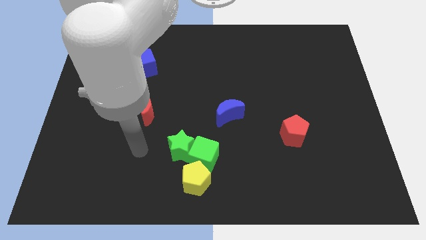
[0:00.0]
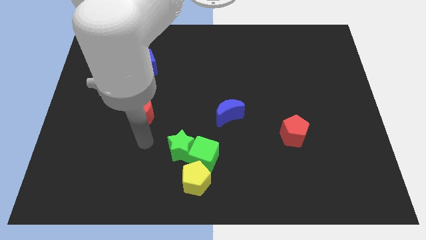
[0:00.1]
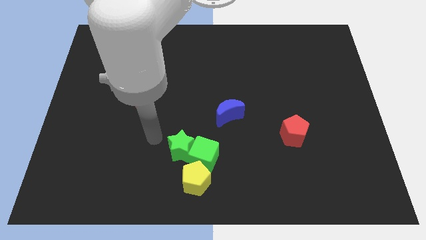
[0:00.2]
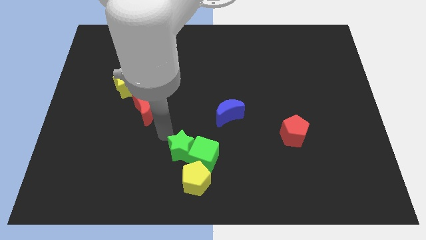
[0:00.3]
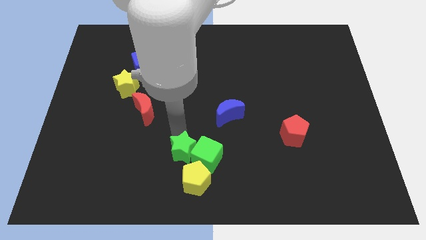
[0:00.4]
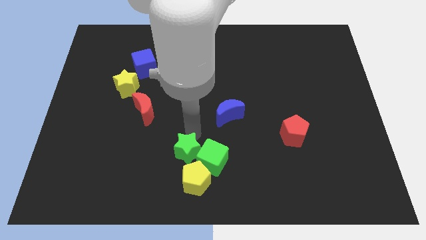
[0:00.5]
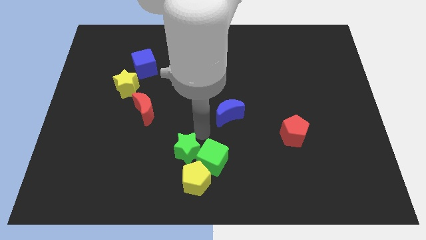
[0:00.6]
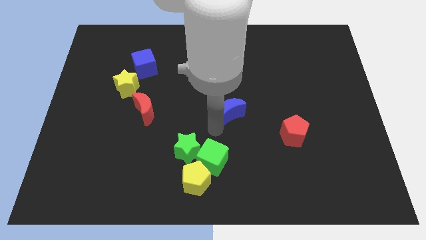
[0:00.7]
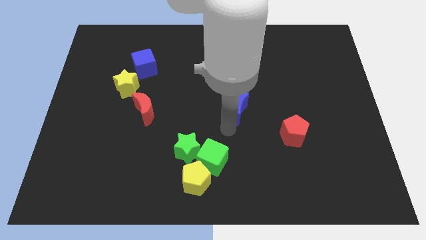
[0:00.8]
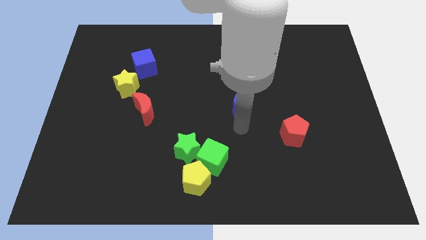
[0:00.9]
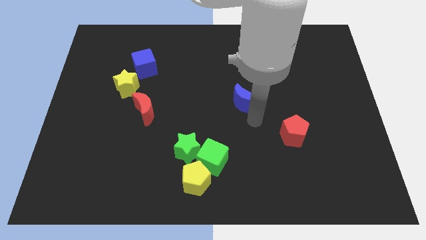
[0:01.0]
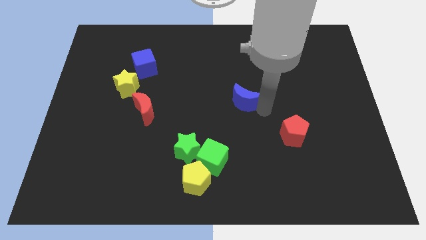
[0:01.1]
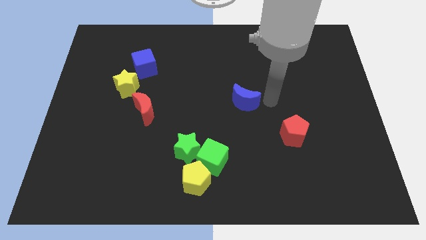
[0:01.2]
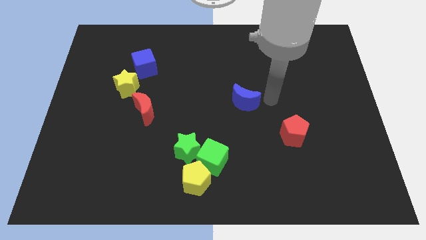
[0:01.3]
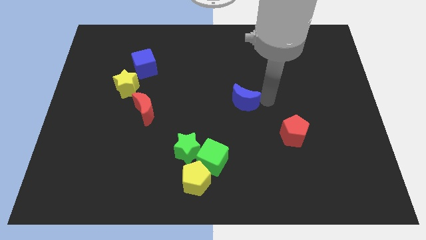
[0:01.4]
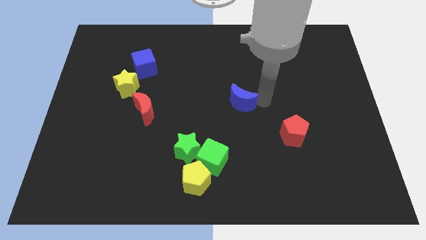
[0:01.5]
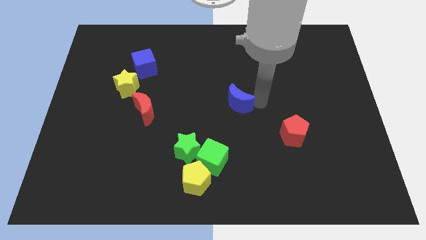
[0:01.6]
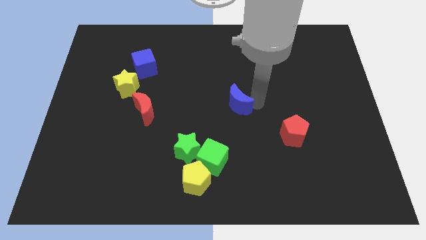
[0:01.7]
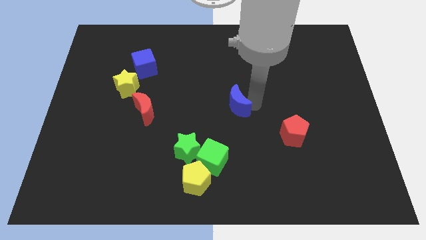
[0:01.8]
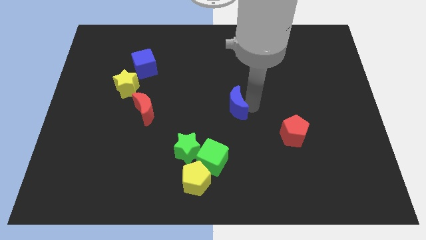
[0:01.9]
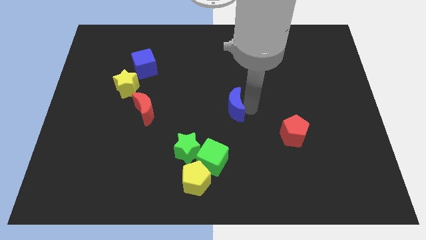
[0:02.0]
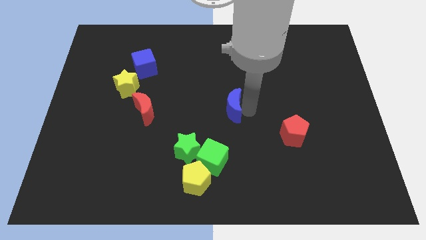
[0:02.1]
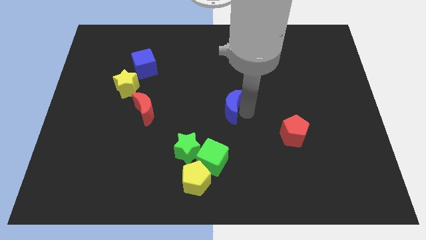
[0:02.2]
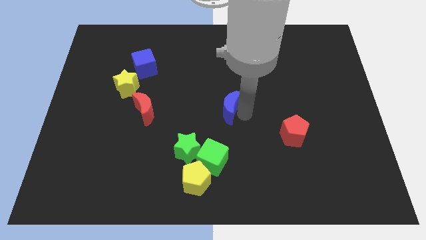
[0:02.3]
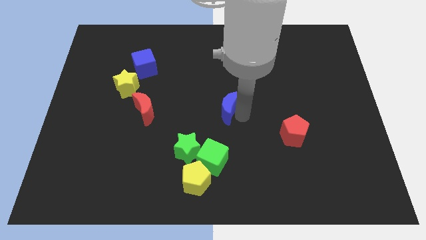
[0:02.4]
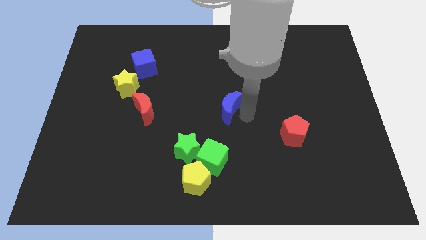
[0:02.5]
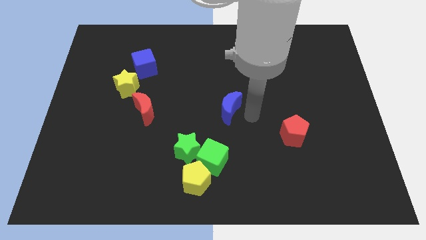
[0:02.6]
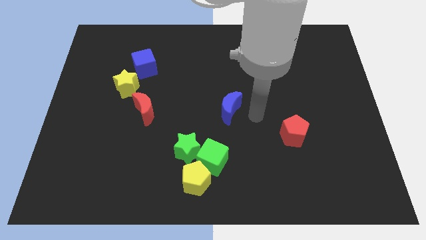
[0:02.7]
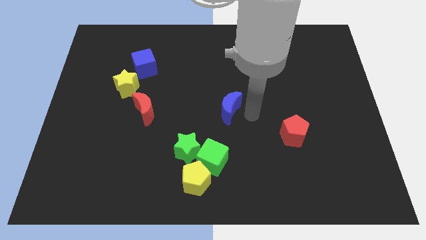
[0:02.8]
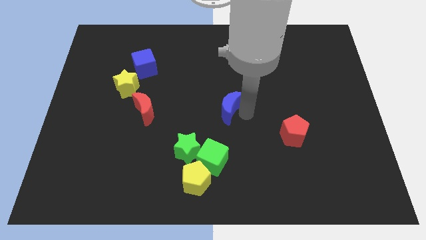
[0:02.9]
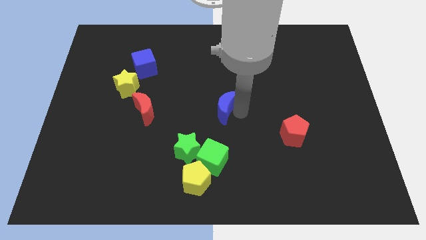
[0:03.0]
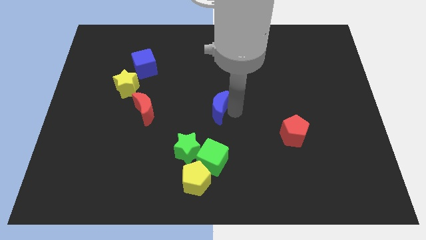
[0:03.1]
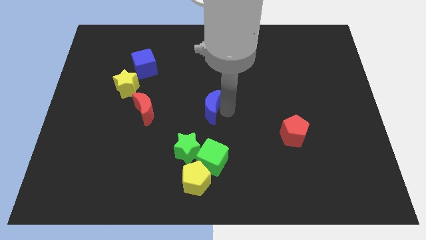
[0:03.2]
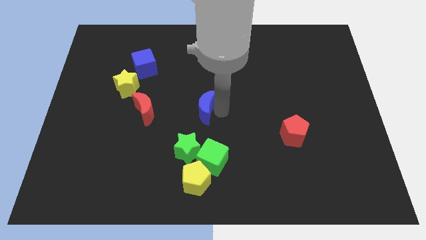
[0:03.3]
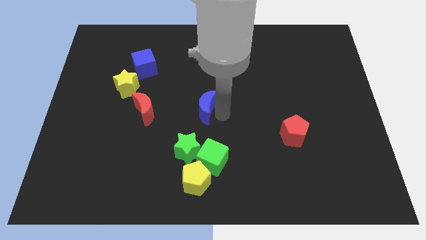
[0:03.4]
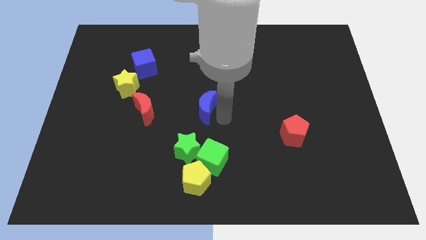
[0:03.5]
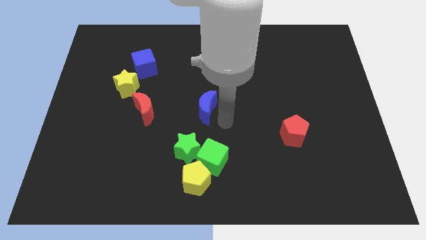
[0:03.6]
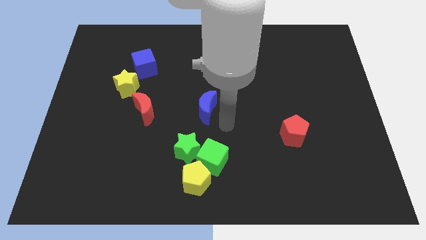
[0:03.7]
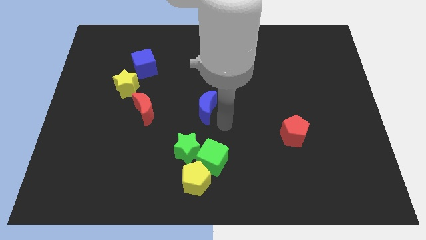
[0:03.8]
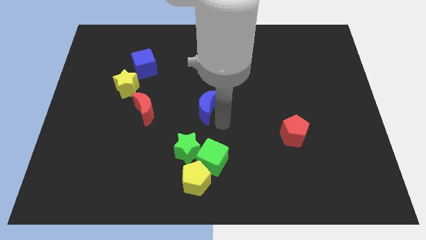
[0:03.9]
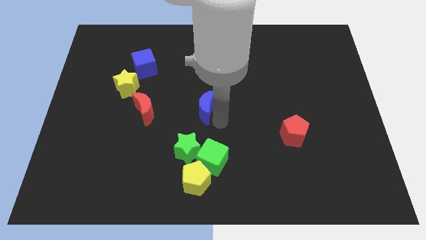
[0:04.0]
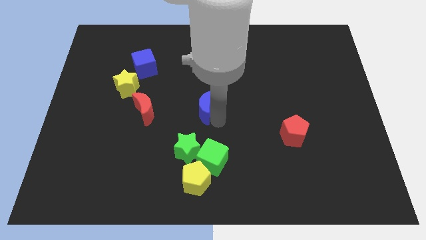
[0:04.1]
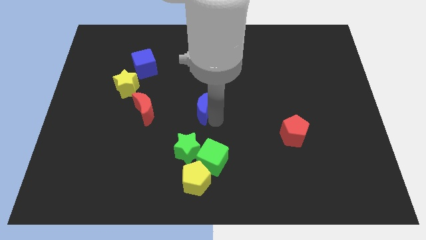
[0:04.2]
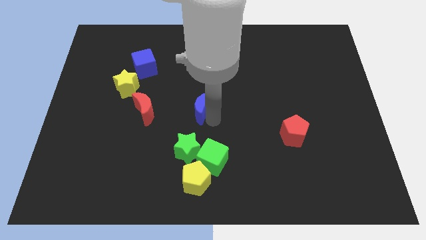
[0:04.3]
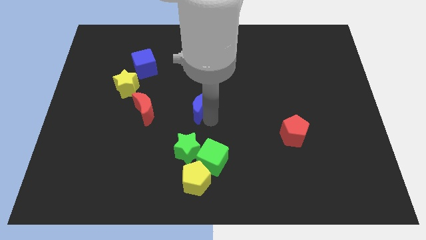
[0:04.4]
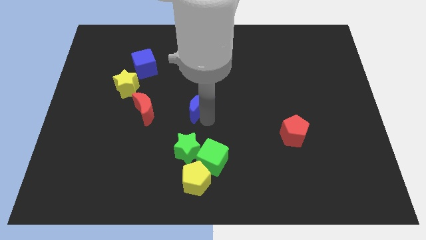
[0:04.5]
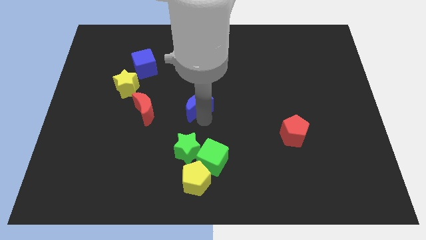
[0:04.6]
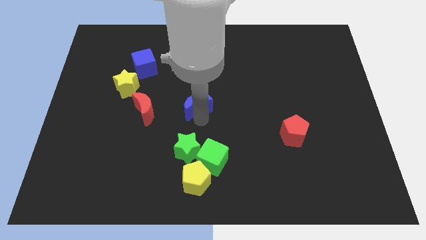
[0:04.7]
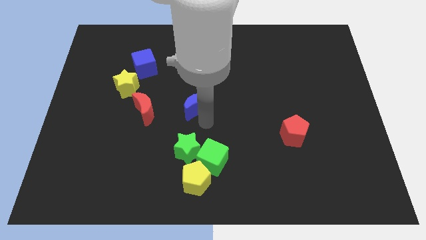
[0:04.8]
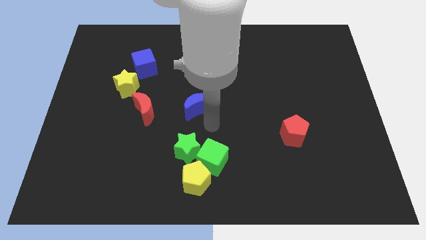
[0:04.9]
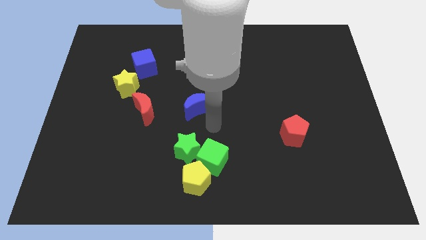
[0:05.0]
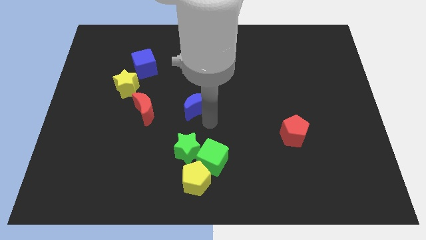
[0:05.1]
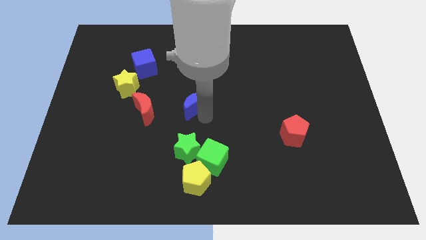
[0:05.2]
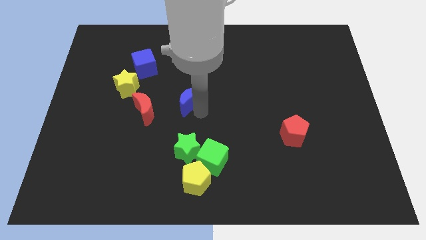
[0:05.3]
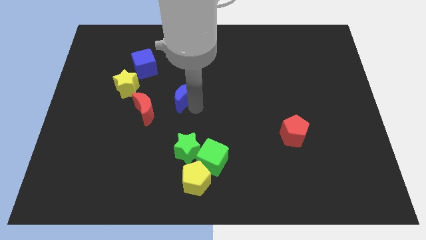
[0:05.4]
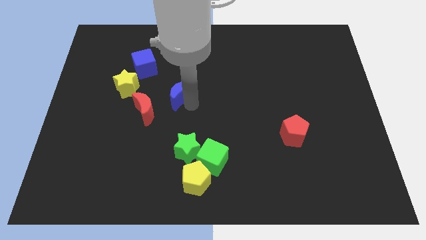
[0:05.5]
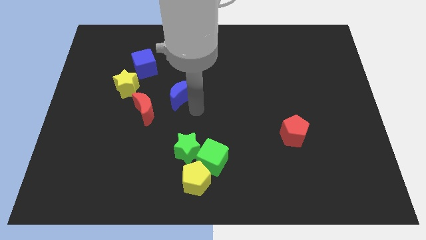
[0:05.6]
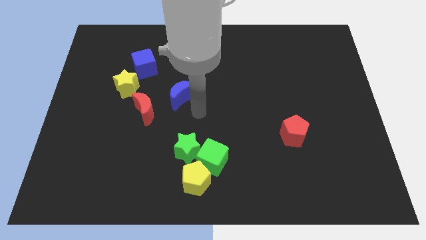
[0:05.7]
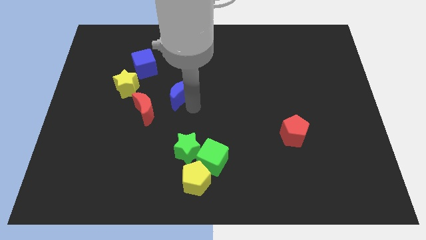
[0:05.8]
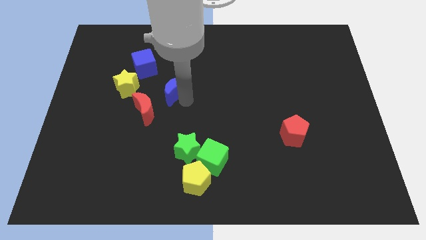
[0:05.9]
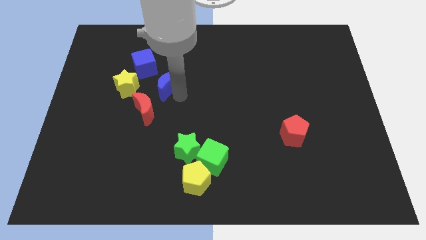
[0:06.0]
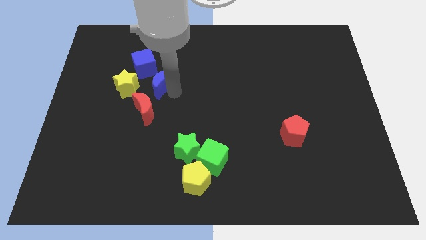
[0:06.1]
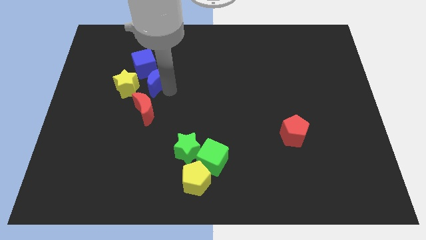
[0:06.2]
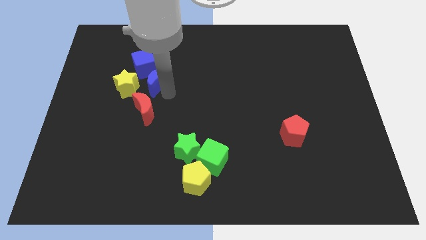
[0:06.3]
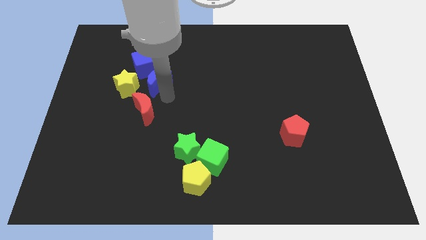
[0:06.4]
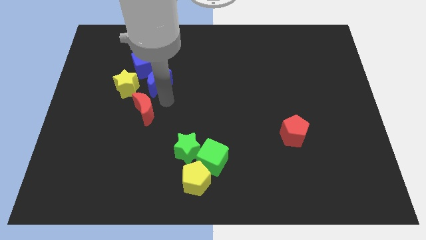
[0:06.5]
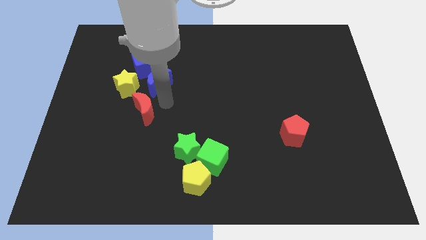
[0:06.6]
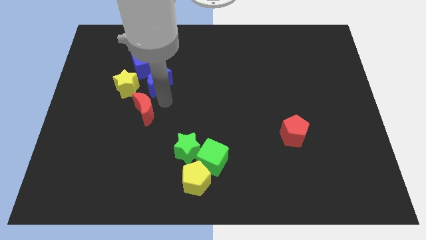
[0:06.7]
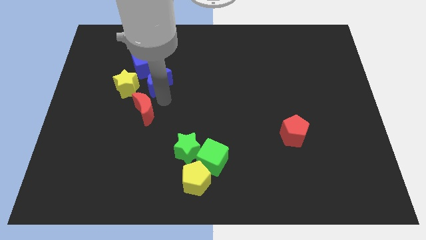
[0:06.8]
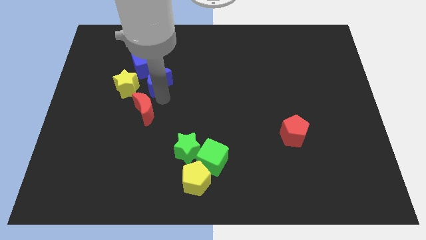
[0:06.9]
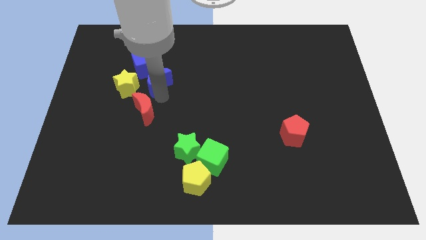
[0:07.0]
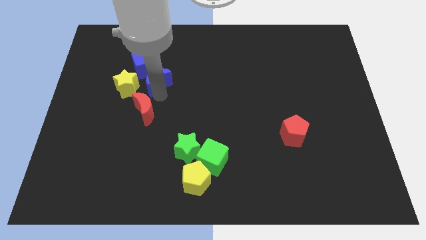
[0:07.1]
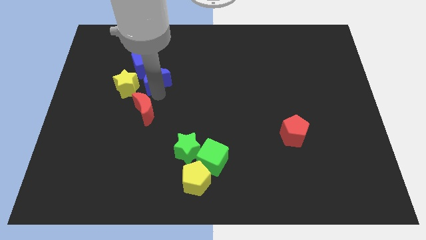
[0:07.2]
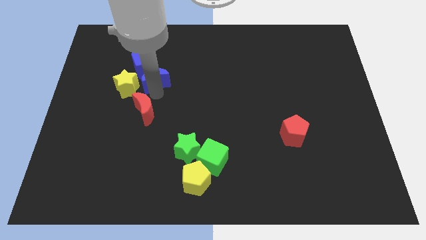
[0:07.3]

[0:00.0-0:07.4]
push the blue moon next to the blue cube
